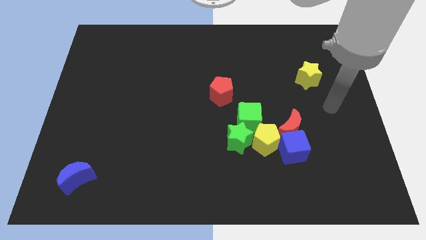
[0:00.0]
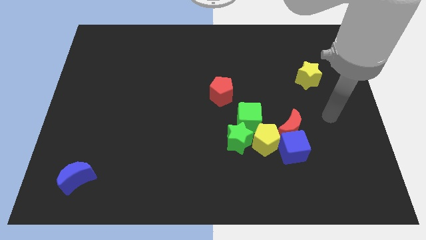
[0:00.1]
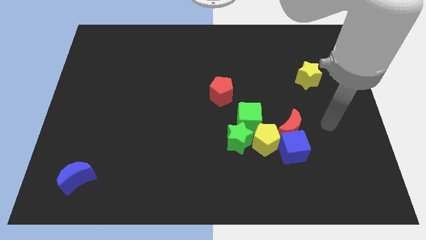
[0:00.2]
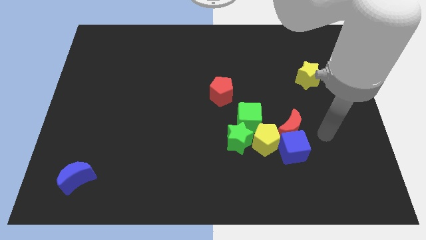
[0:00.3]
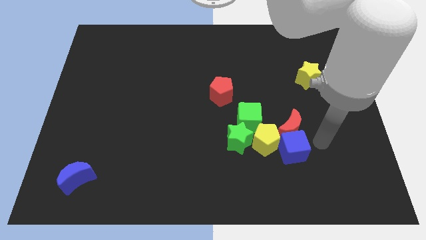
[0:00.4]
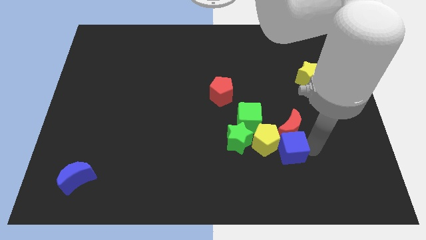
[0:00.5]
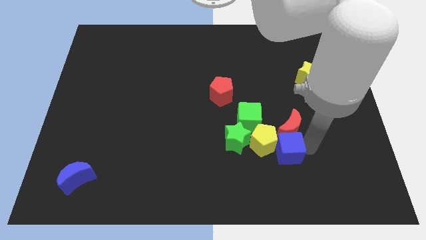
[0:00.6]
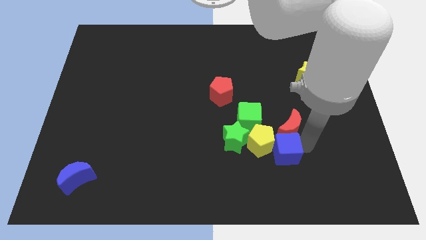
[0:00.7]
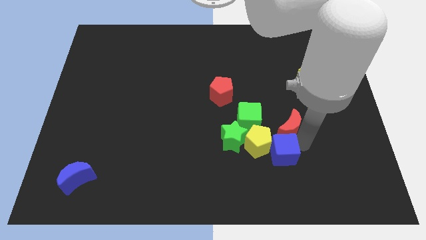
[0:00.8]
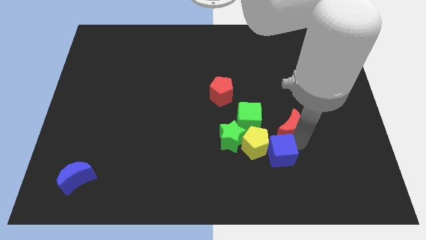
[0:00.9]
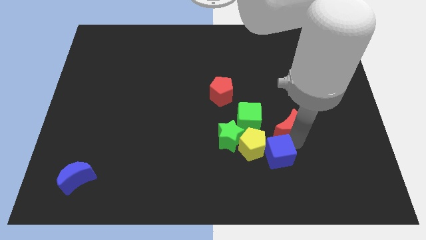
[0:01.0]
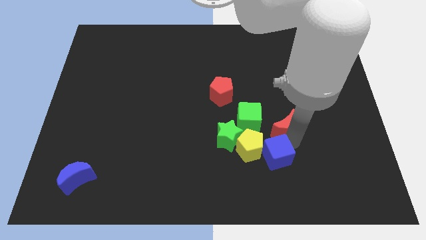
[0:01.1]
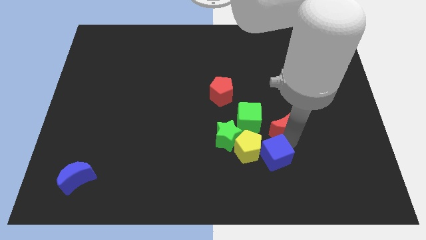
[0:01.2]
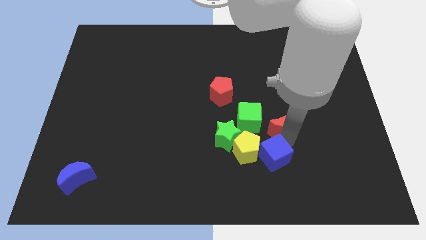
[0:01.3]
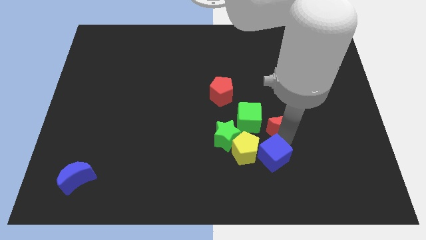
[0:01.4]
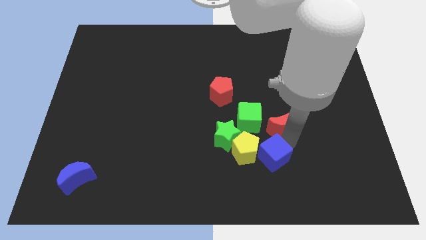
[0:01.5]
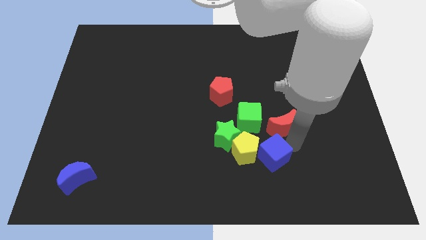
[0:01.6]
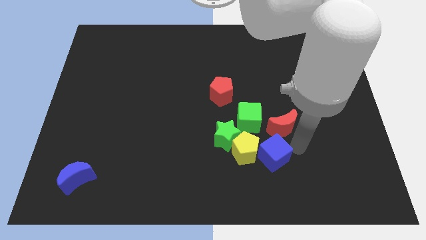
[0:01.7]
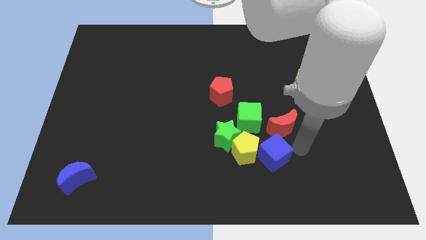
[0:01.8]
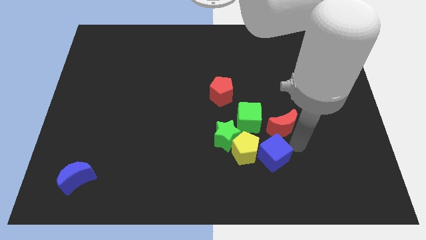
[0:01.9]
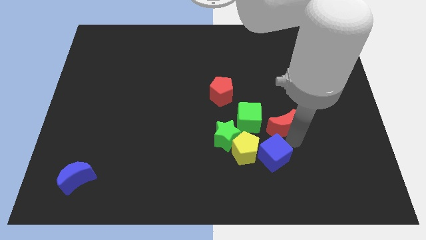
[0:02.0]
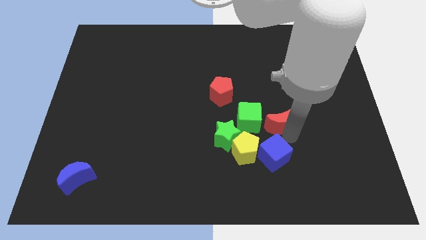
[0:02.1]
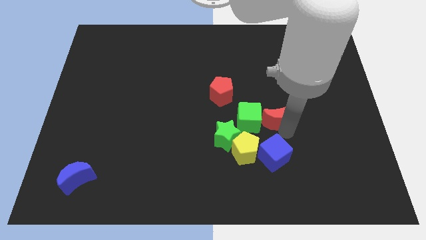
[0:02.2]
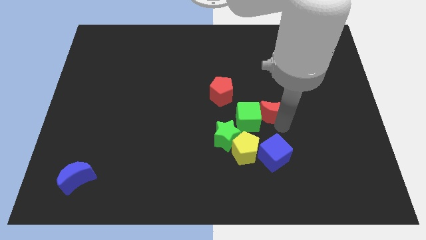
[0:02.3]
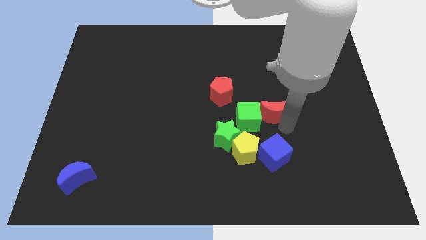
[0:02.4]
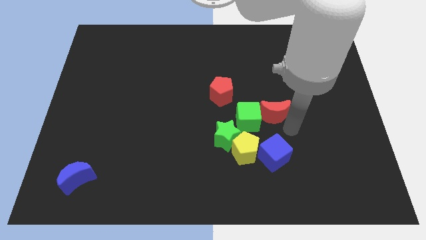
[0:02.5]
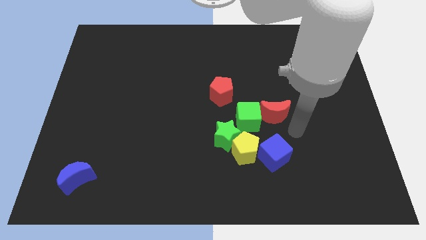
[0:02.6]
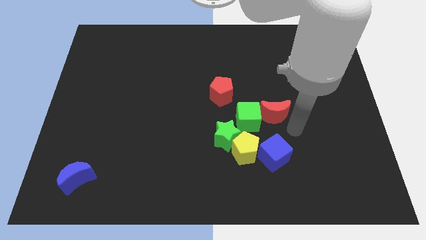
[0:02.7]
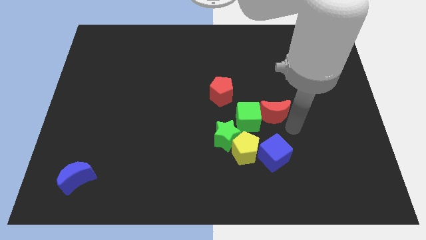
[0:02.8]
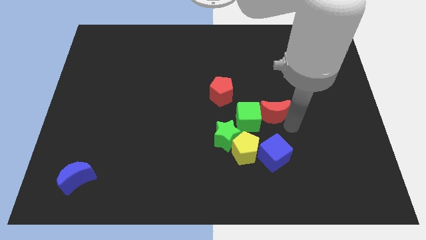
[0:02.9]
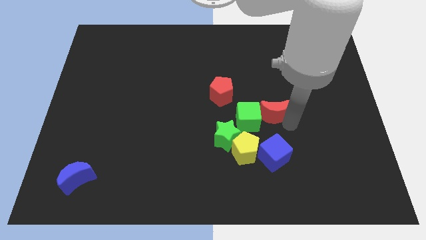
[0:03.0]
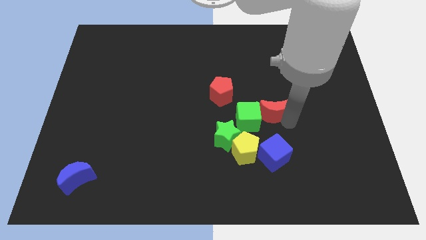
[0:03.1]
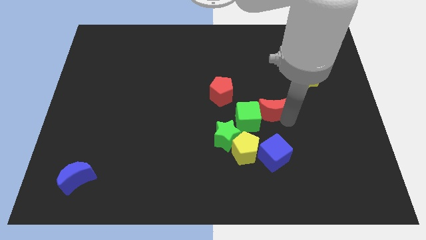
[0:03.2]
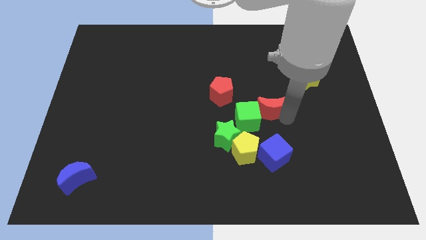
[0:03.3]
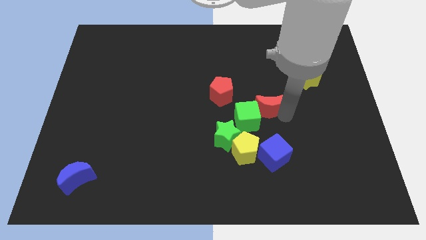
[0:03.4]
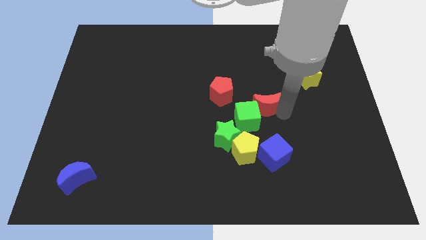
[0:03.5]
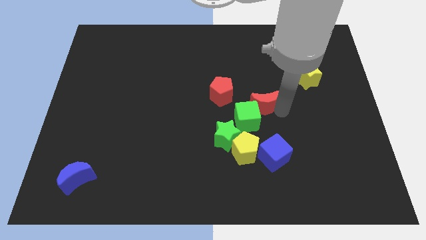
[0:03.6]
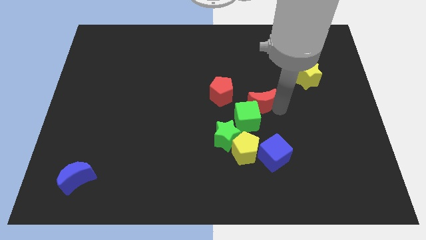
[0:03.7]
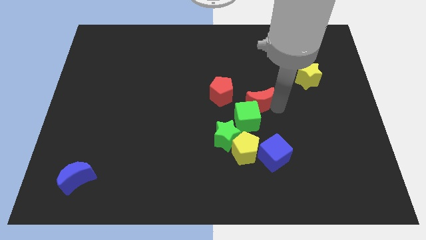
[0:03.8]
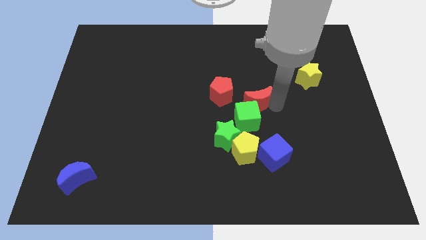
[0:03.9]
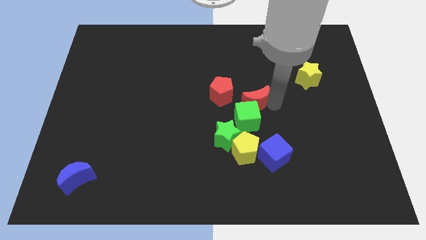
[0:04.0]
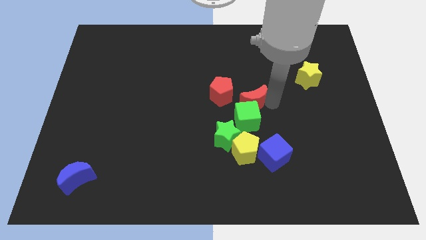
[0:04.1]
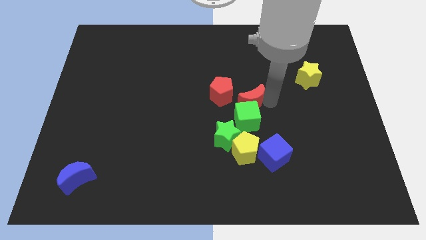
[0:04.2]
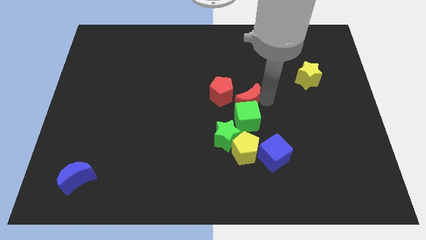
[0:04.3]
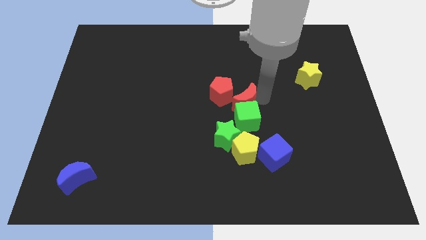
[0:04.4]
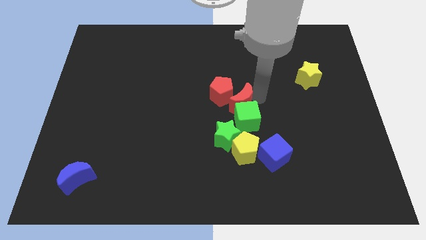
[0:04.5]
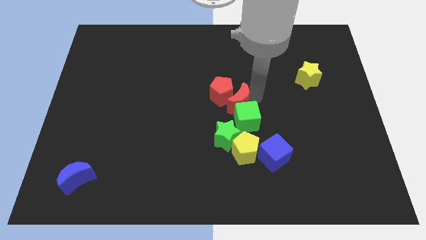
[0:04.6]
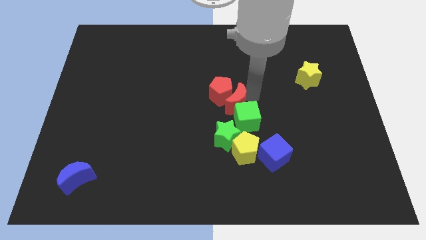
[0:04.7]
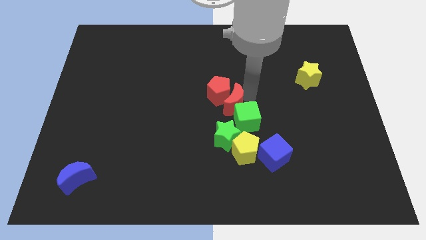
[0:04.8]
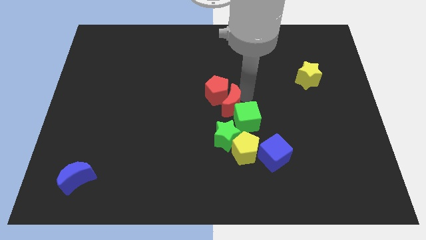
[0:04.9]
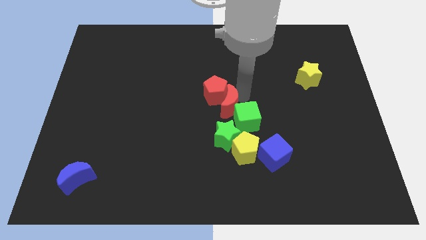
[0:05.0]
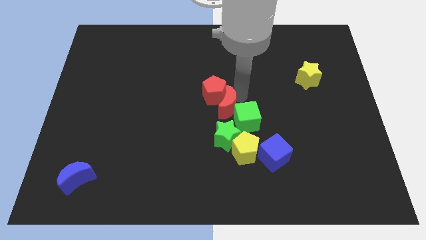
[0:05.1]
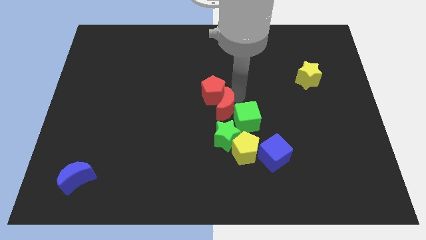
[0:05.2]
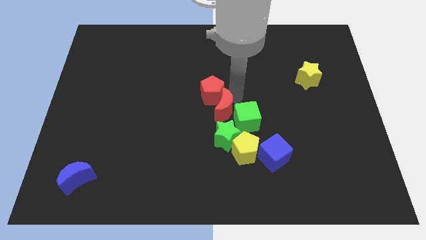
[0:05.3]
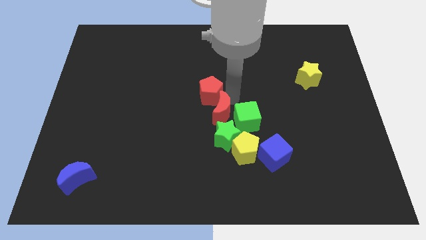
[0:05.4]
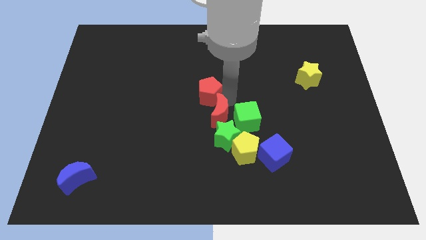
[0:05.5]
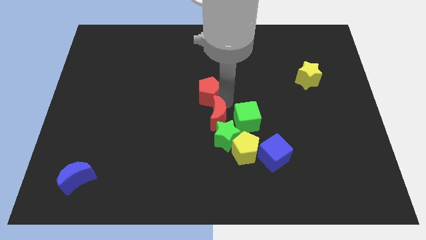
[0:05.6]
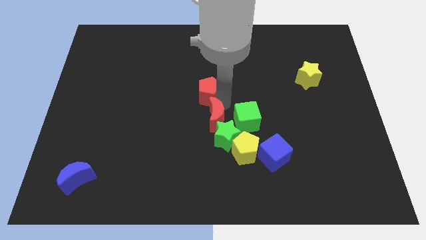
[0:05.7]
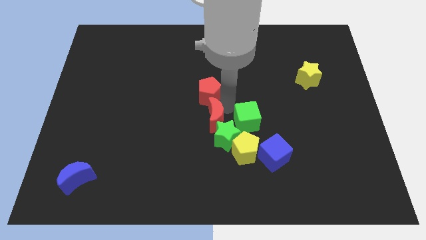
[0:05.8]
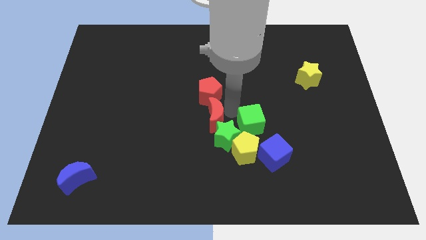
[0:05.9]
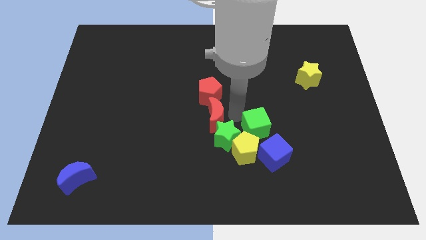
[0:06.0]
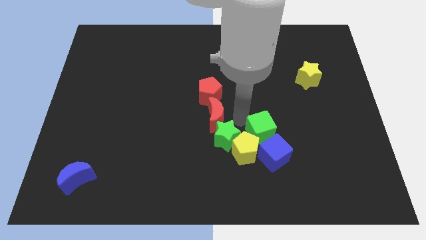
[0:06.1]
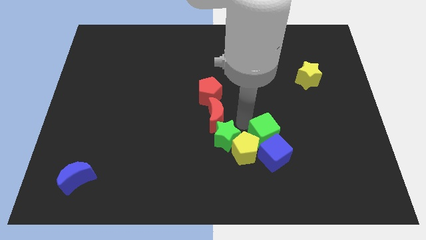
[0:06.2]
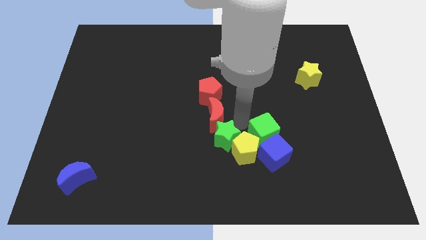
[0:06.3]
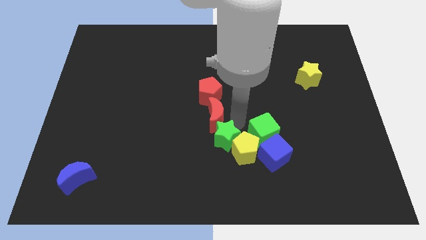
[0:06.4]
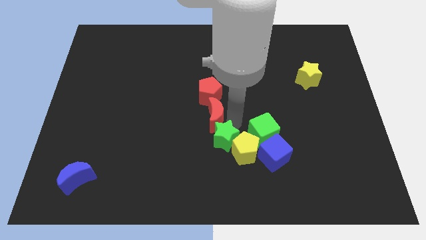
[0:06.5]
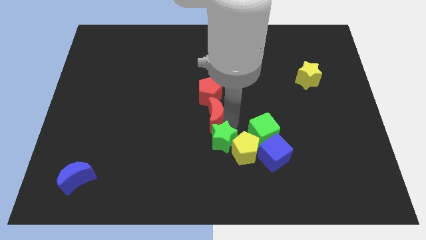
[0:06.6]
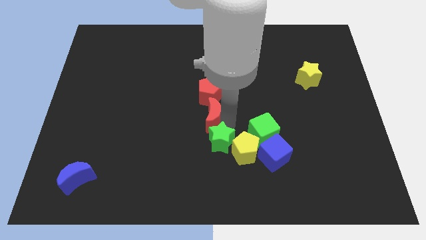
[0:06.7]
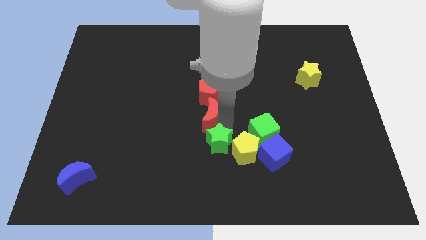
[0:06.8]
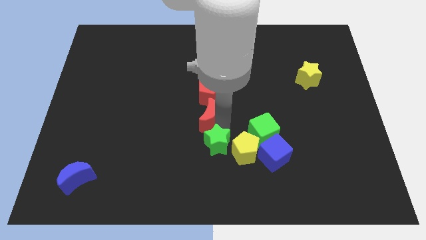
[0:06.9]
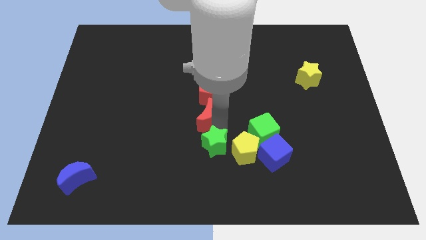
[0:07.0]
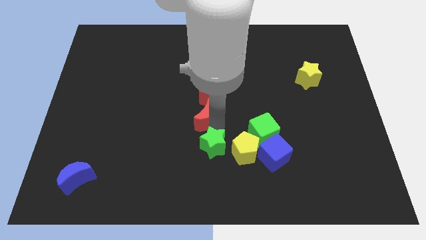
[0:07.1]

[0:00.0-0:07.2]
put the red moon to the bottom left of the red pentagon
